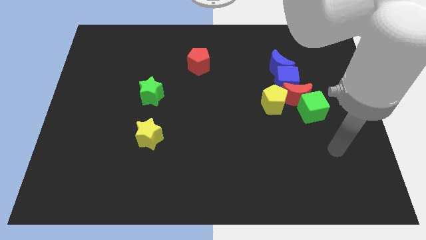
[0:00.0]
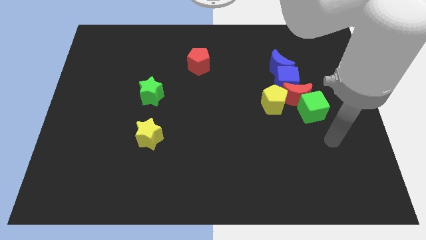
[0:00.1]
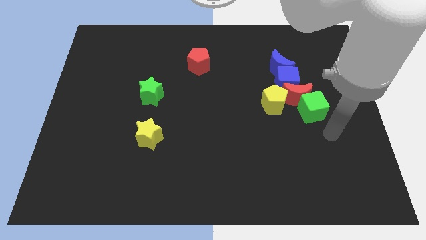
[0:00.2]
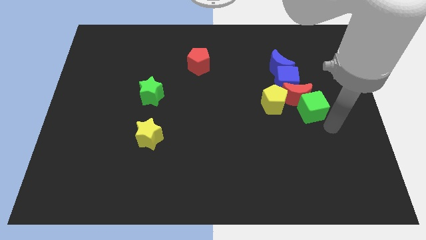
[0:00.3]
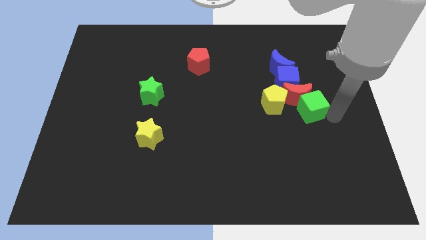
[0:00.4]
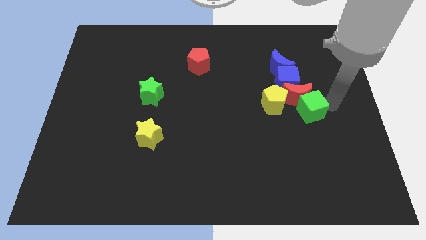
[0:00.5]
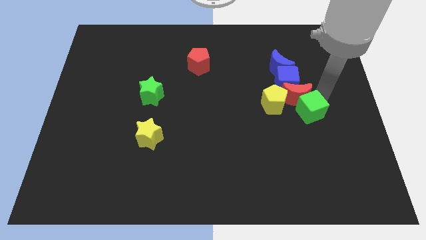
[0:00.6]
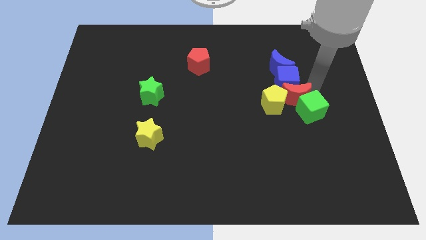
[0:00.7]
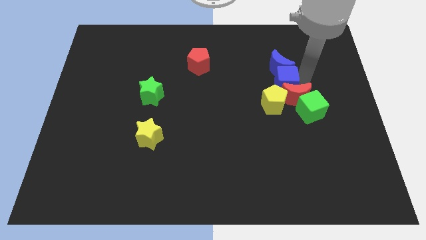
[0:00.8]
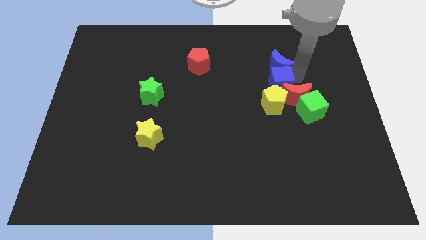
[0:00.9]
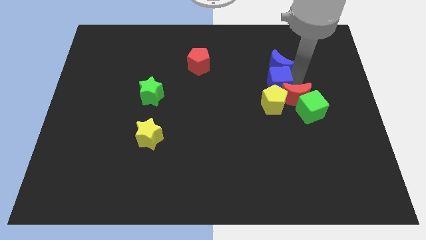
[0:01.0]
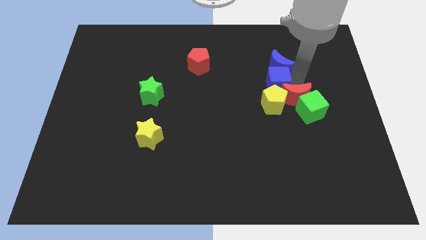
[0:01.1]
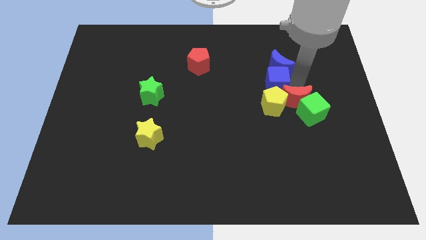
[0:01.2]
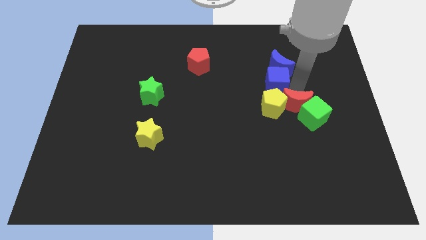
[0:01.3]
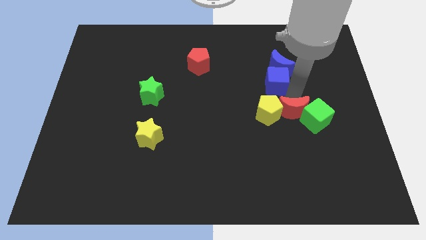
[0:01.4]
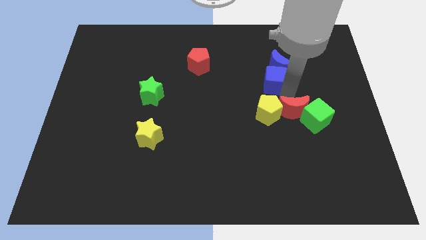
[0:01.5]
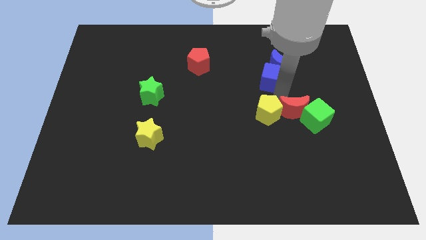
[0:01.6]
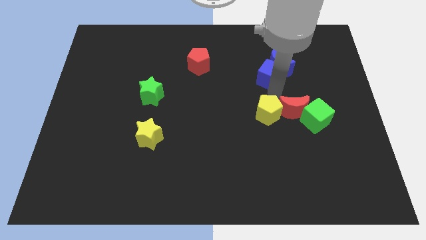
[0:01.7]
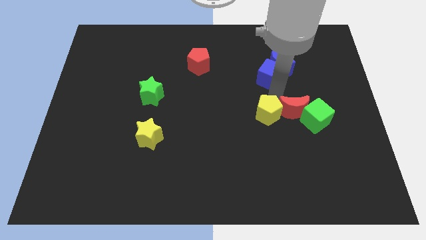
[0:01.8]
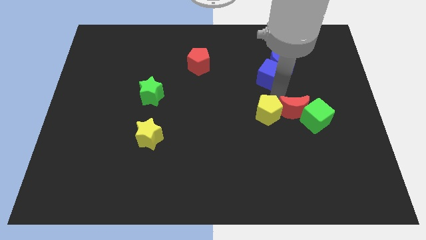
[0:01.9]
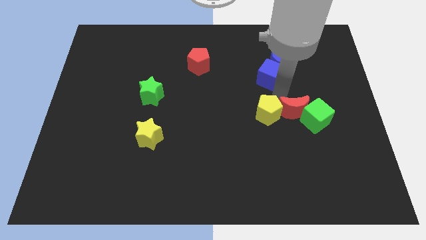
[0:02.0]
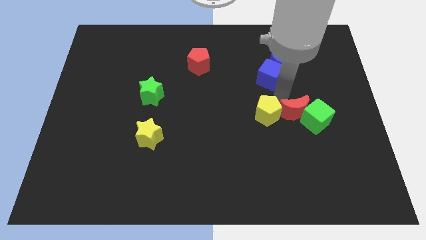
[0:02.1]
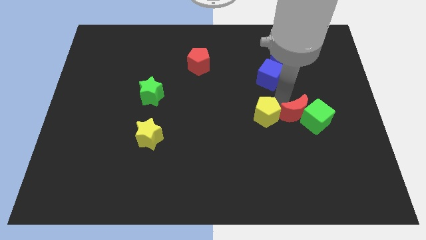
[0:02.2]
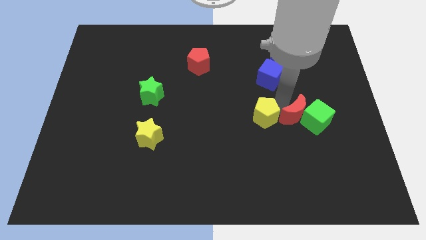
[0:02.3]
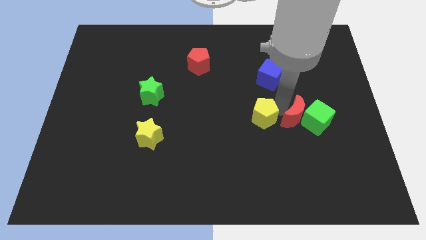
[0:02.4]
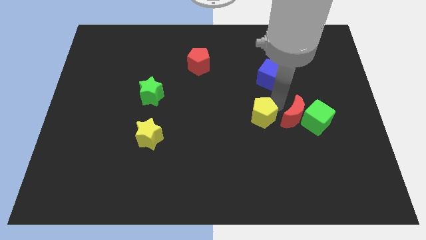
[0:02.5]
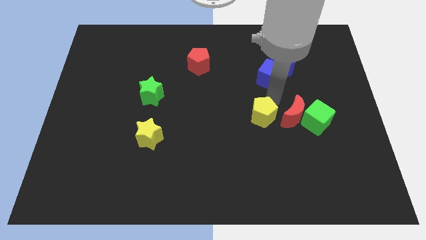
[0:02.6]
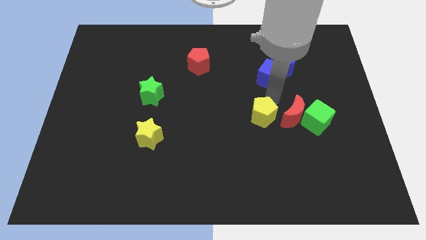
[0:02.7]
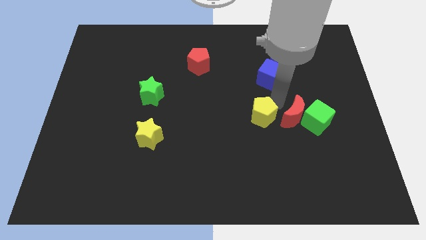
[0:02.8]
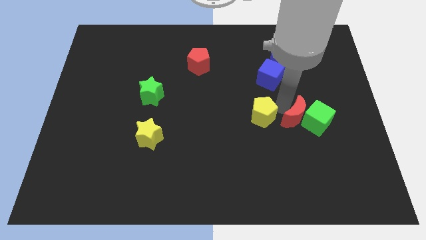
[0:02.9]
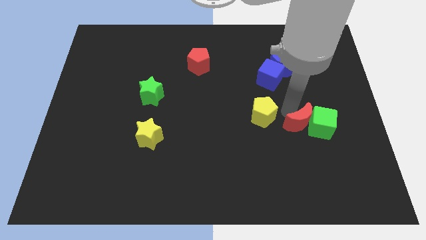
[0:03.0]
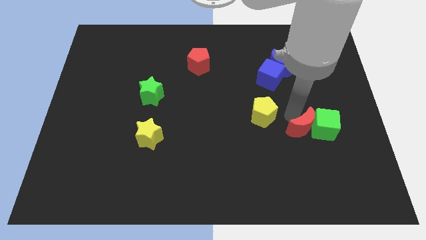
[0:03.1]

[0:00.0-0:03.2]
separate the red moon from the group

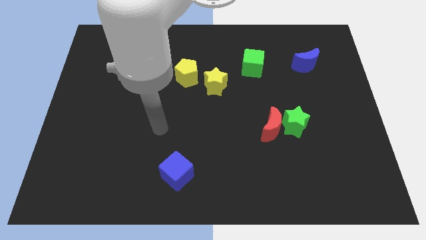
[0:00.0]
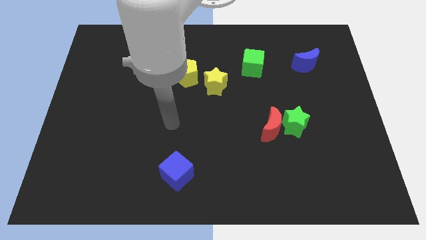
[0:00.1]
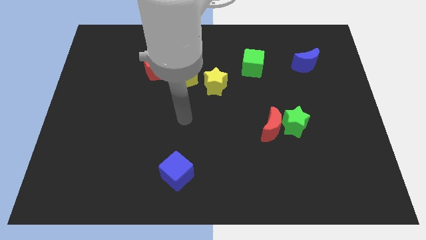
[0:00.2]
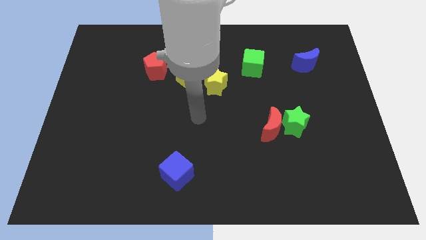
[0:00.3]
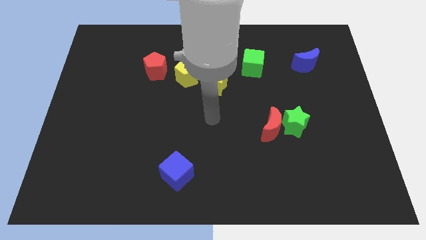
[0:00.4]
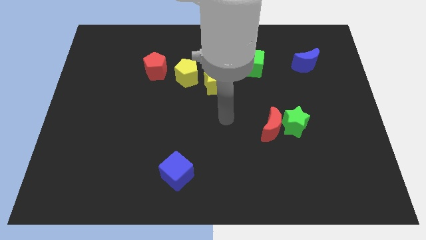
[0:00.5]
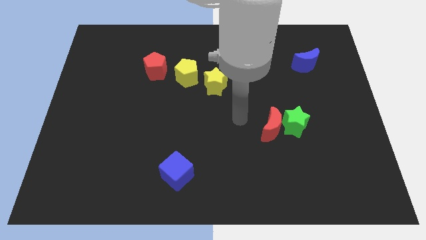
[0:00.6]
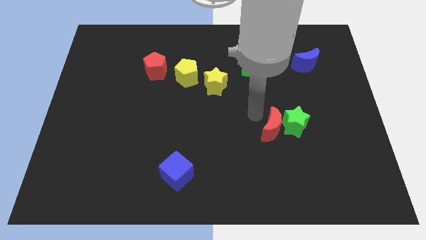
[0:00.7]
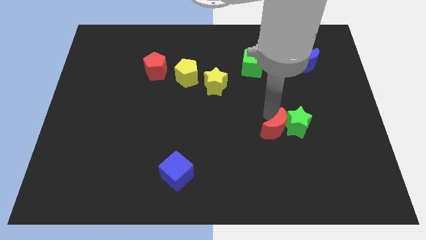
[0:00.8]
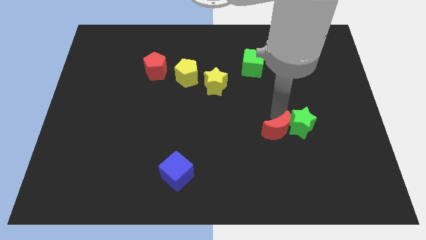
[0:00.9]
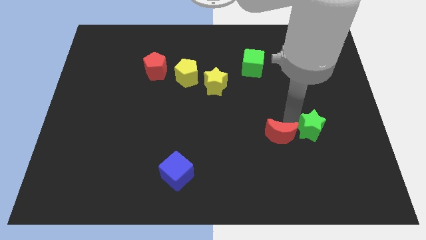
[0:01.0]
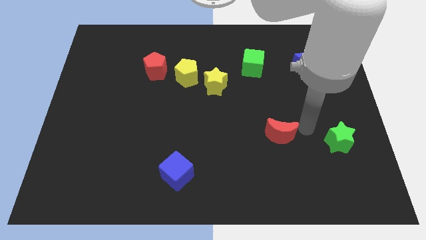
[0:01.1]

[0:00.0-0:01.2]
move the red moon away from the green star

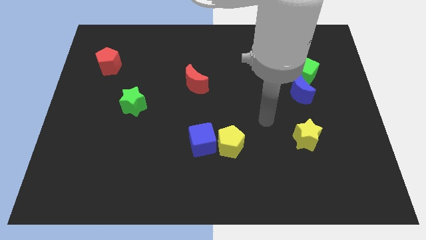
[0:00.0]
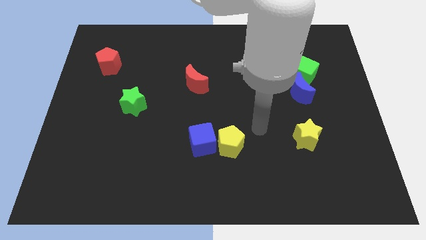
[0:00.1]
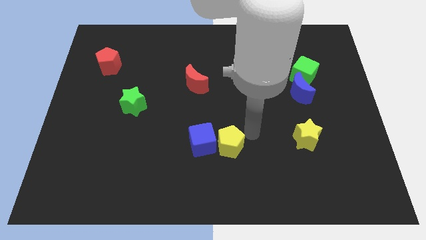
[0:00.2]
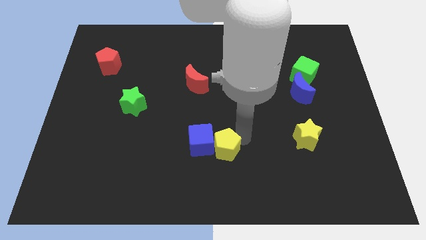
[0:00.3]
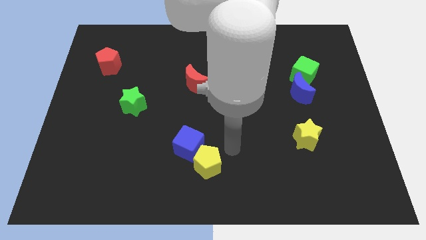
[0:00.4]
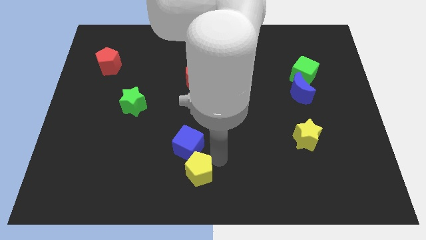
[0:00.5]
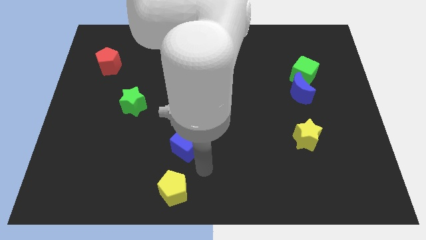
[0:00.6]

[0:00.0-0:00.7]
move the blue cube away from the yellow pentagon

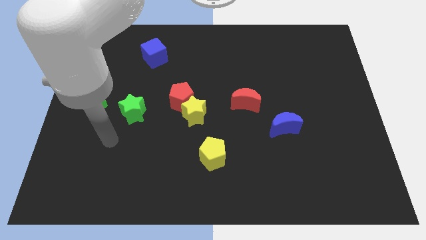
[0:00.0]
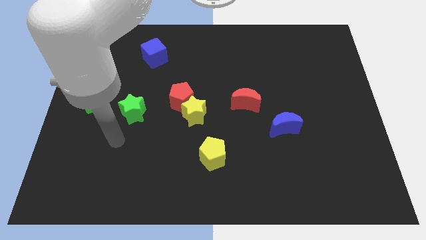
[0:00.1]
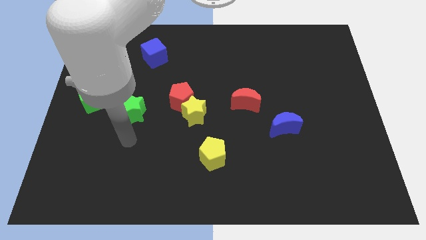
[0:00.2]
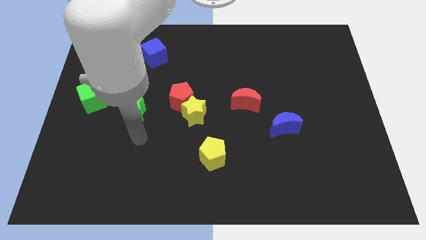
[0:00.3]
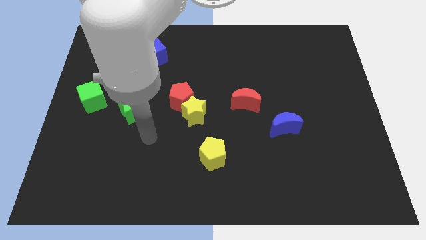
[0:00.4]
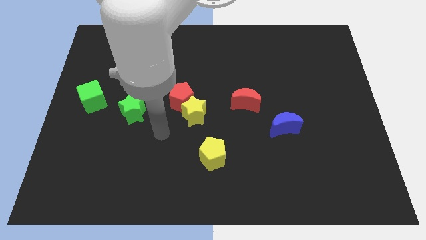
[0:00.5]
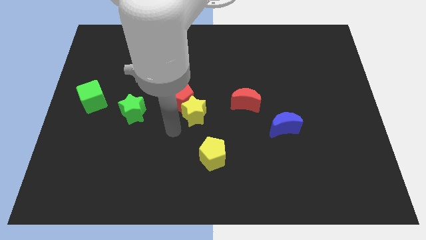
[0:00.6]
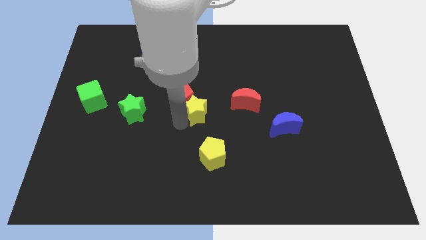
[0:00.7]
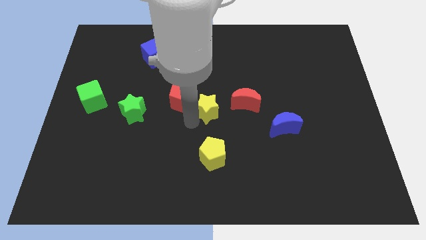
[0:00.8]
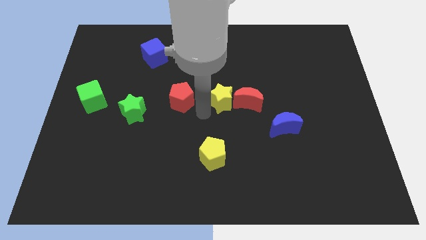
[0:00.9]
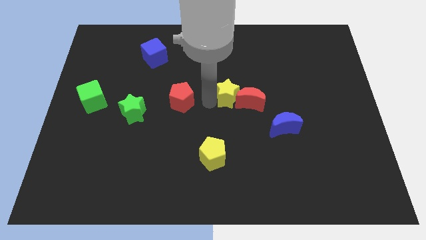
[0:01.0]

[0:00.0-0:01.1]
separate the red pentagon from the yellow star

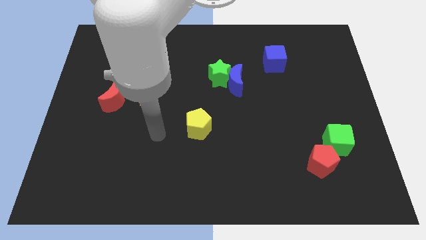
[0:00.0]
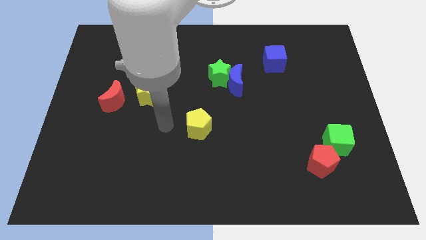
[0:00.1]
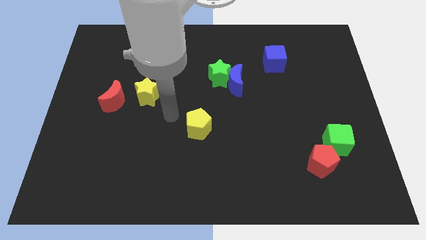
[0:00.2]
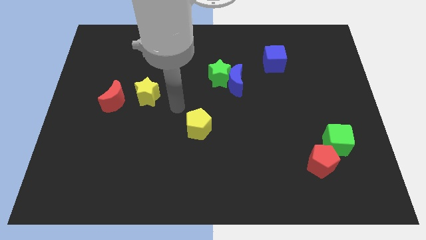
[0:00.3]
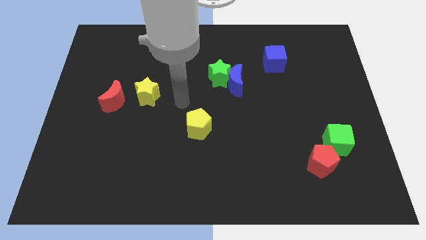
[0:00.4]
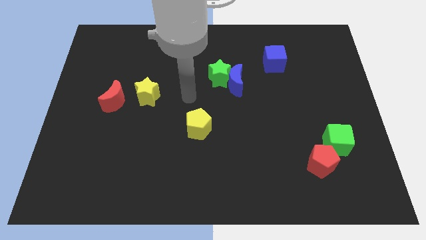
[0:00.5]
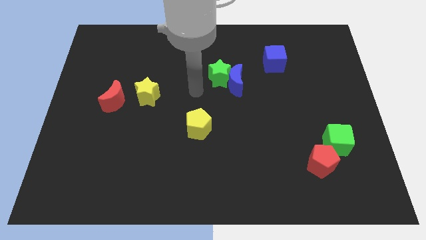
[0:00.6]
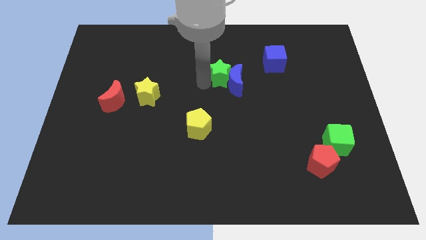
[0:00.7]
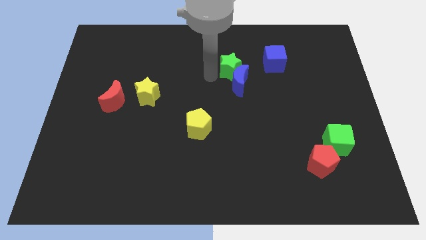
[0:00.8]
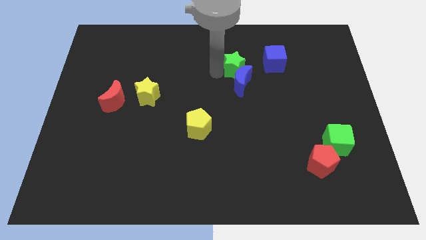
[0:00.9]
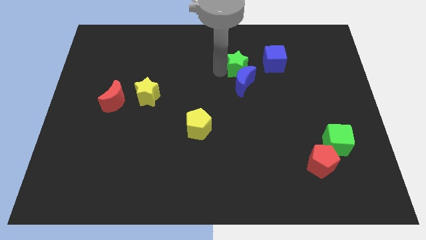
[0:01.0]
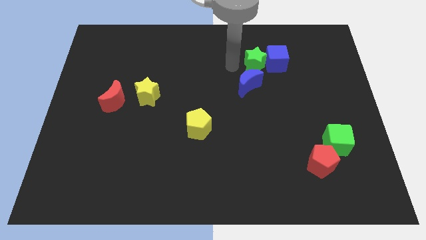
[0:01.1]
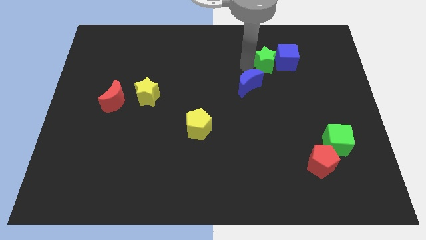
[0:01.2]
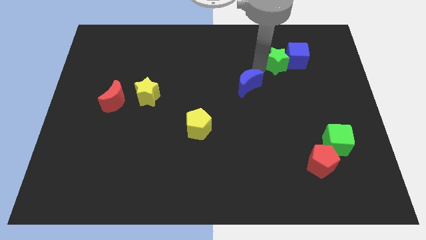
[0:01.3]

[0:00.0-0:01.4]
pull the blue moon apart from the green star

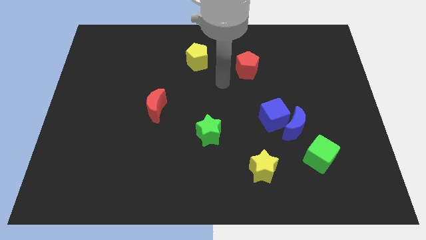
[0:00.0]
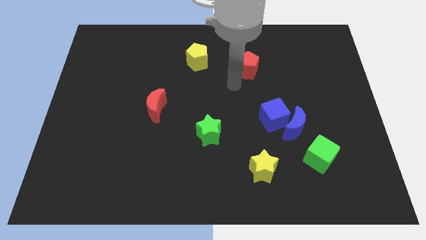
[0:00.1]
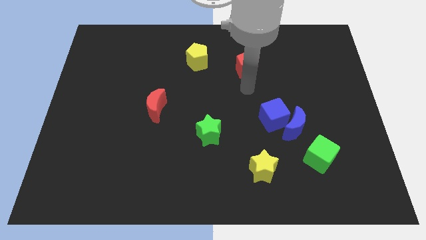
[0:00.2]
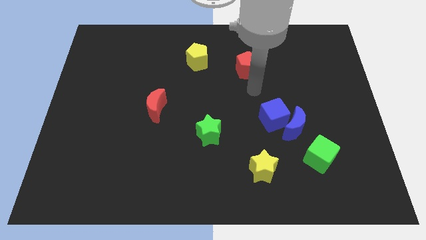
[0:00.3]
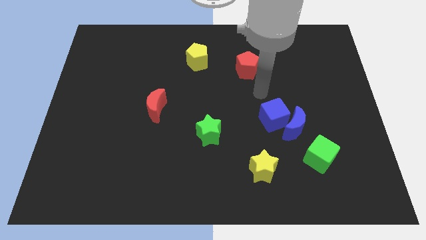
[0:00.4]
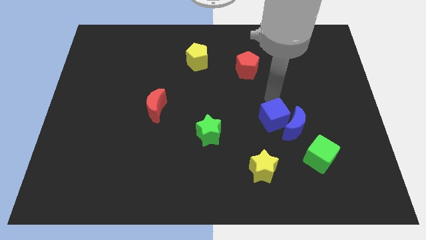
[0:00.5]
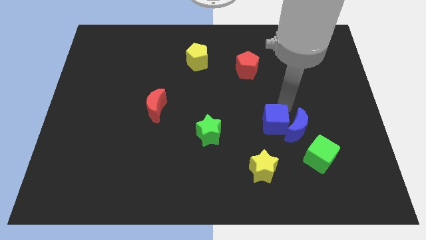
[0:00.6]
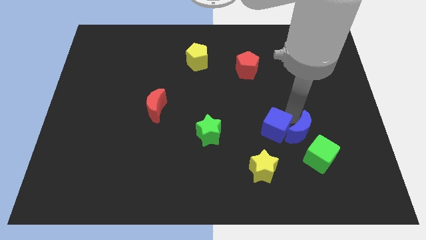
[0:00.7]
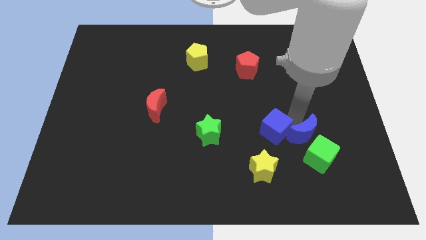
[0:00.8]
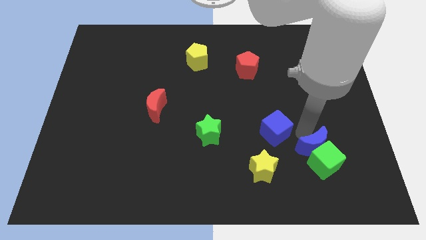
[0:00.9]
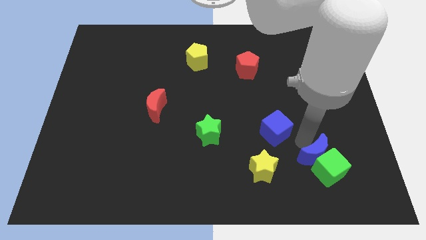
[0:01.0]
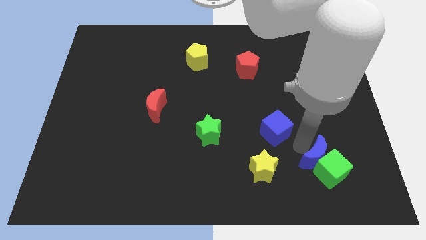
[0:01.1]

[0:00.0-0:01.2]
pull the blue cube apart from the blue moon

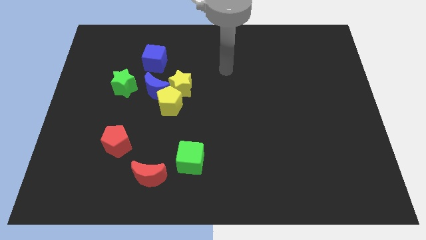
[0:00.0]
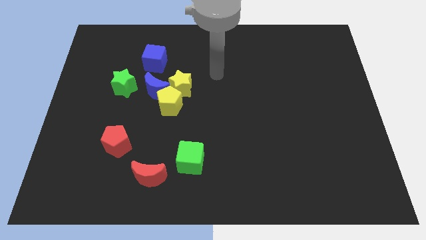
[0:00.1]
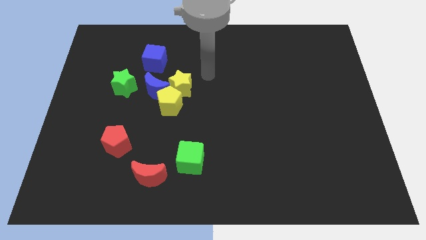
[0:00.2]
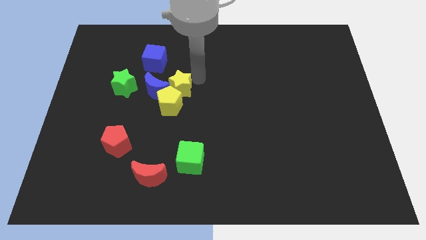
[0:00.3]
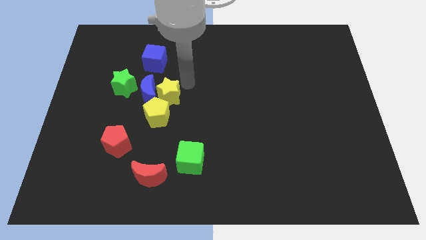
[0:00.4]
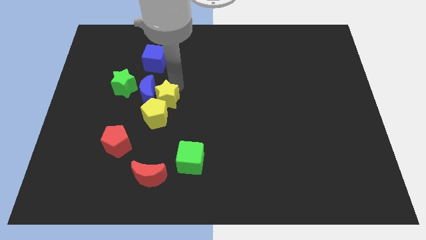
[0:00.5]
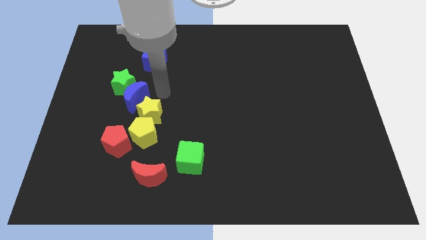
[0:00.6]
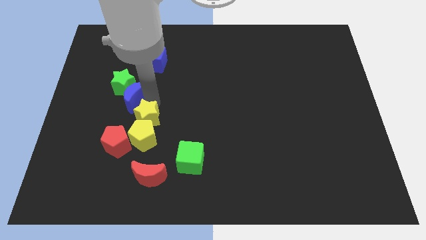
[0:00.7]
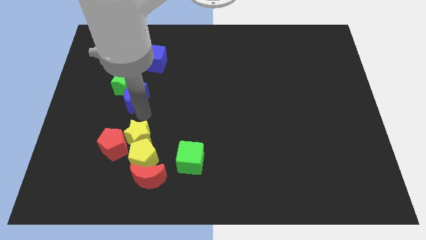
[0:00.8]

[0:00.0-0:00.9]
move the yellow pentagon away from the blue moon and yellow star
